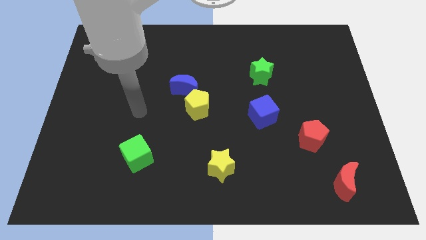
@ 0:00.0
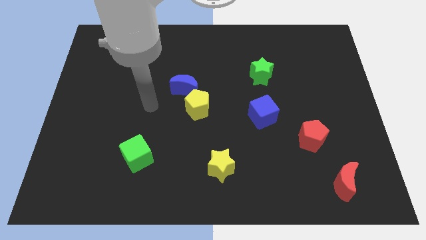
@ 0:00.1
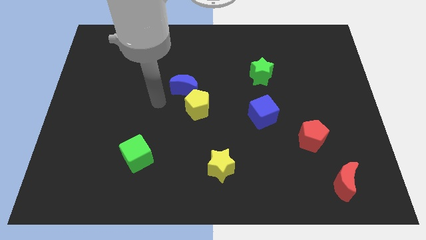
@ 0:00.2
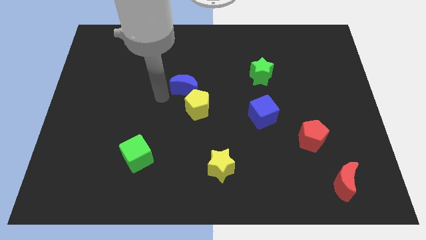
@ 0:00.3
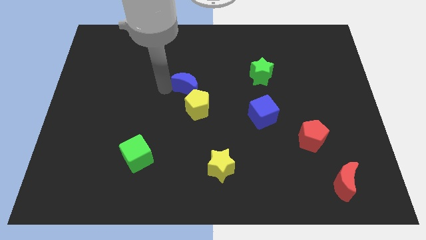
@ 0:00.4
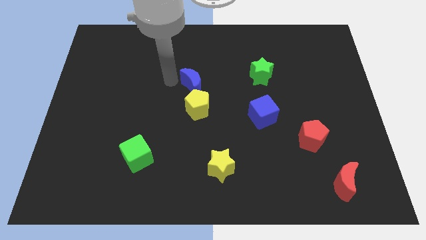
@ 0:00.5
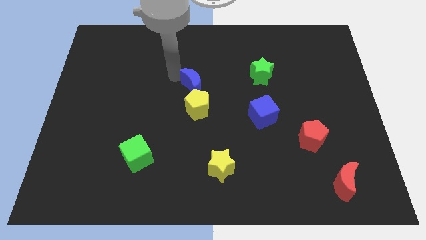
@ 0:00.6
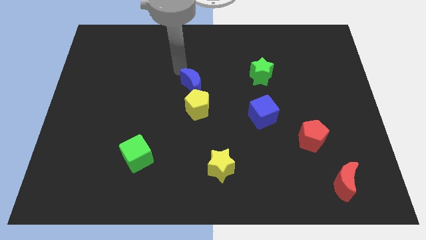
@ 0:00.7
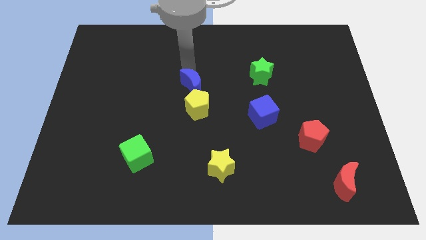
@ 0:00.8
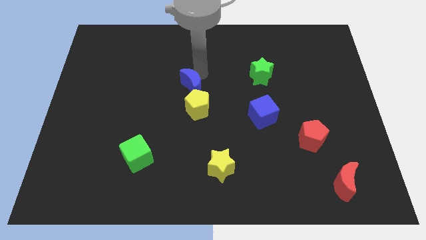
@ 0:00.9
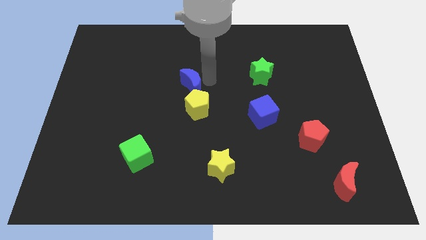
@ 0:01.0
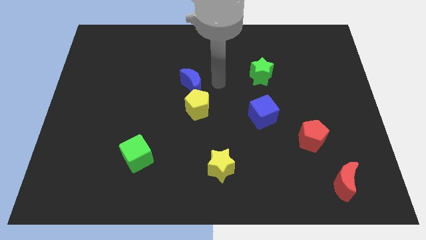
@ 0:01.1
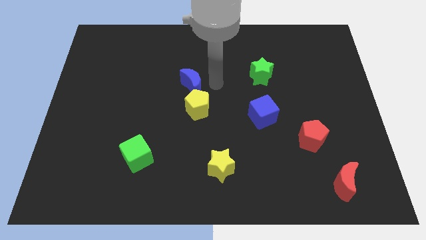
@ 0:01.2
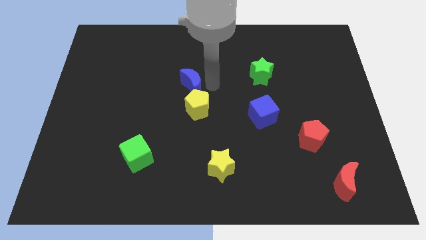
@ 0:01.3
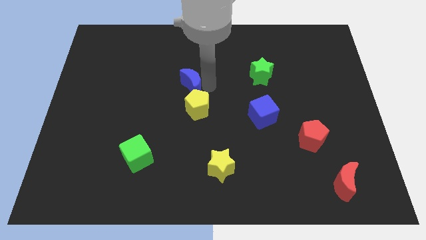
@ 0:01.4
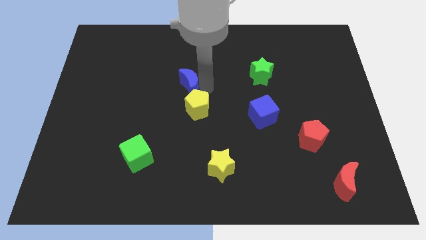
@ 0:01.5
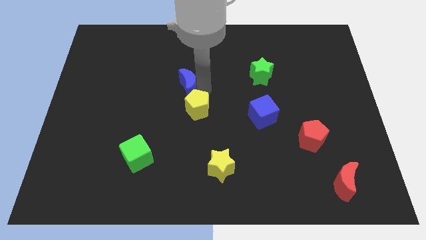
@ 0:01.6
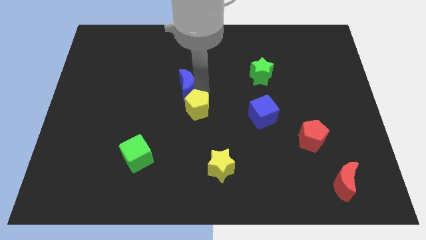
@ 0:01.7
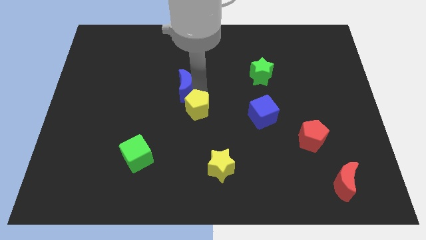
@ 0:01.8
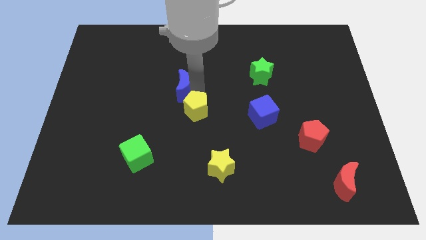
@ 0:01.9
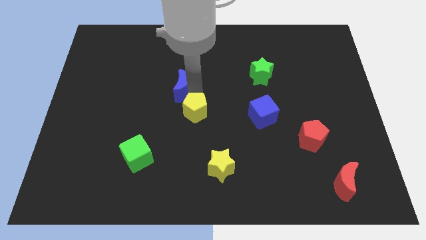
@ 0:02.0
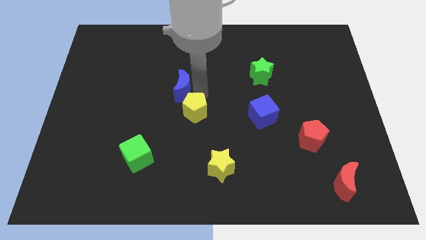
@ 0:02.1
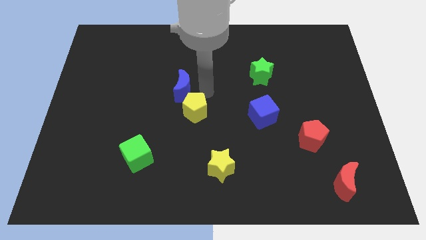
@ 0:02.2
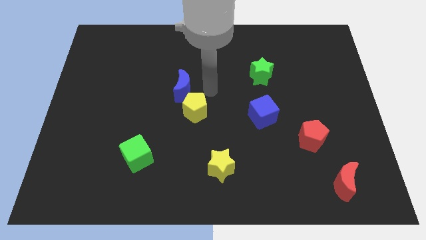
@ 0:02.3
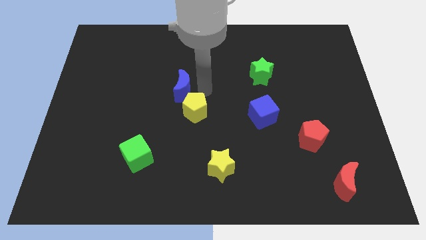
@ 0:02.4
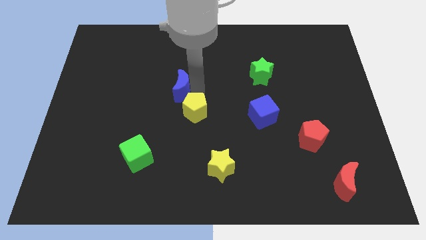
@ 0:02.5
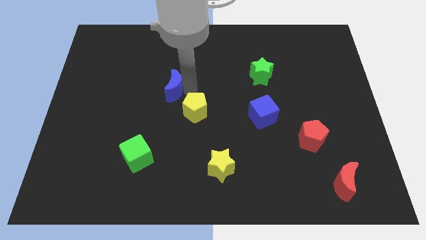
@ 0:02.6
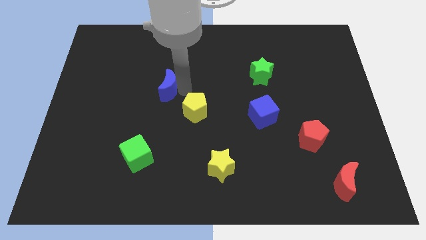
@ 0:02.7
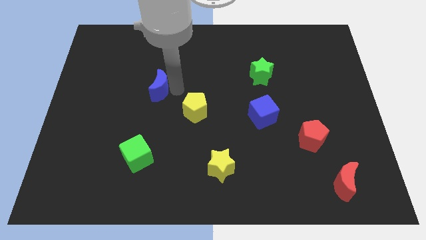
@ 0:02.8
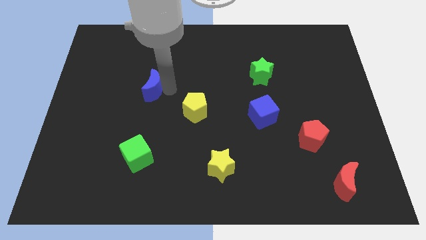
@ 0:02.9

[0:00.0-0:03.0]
slightly push the blue moon left

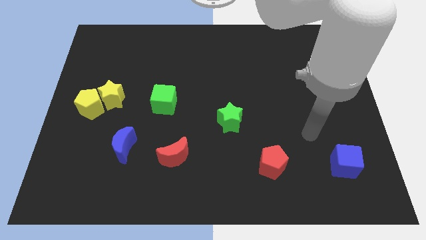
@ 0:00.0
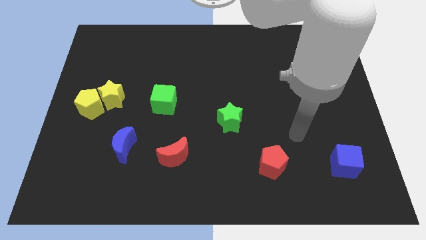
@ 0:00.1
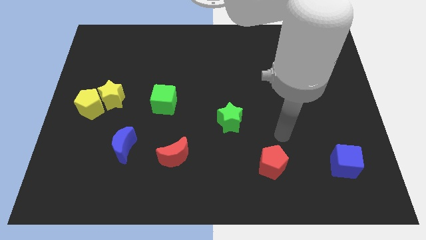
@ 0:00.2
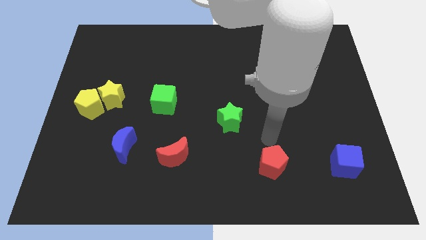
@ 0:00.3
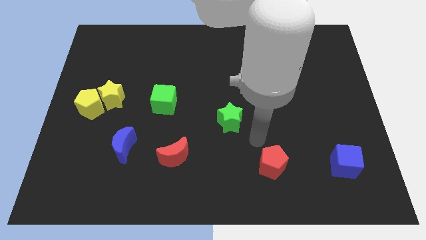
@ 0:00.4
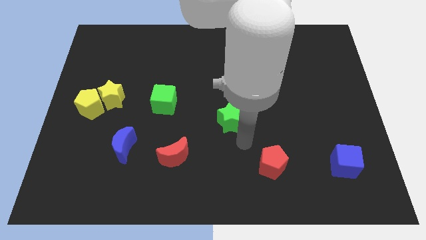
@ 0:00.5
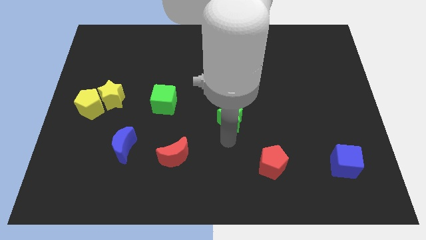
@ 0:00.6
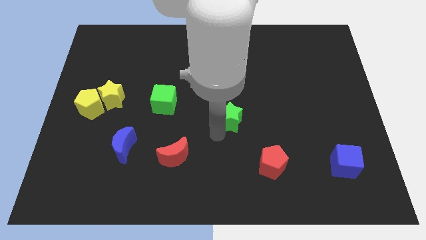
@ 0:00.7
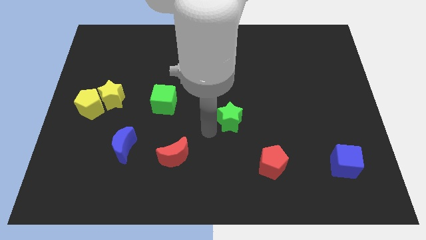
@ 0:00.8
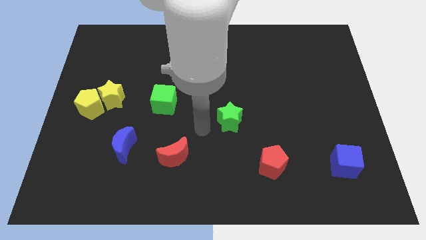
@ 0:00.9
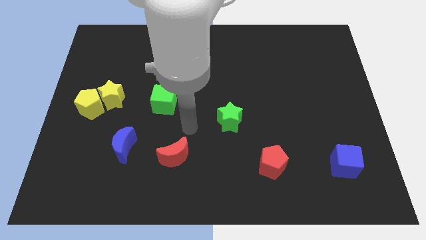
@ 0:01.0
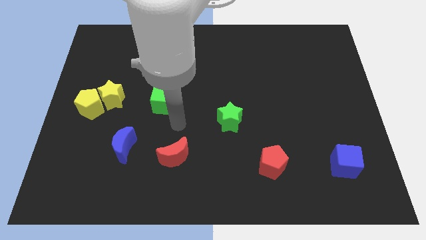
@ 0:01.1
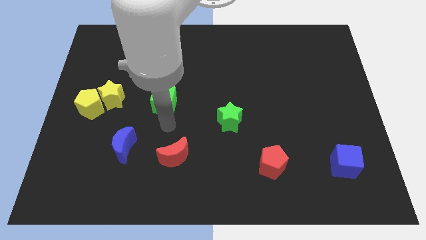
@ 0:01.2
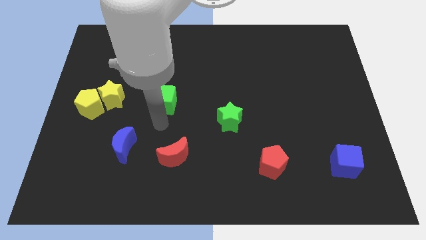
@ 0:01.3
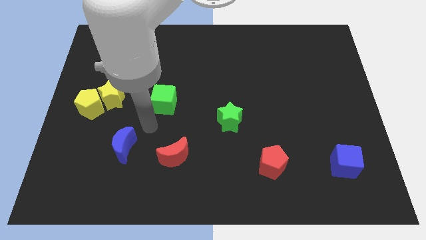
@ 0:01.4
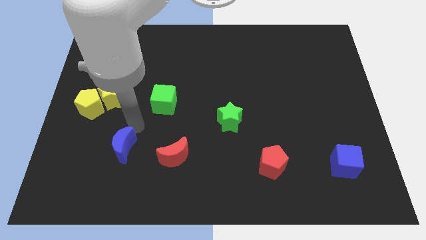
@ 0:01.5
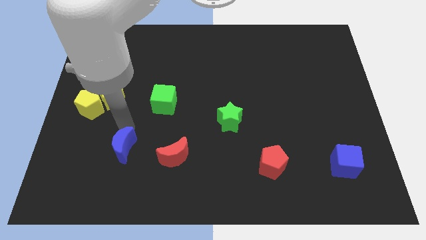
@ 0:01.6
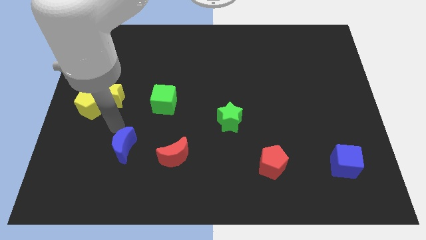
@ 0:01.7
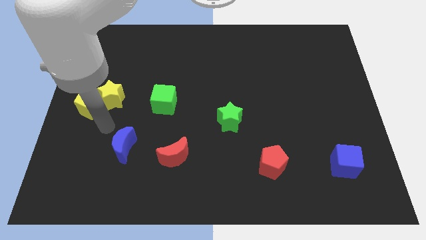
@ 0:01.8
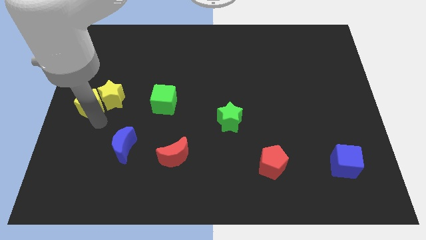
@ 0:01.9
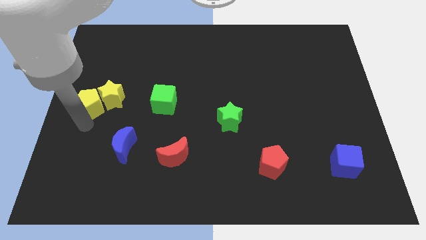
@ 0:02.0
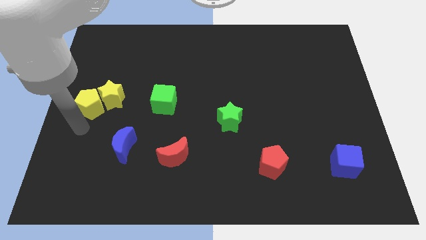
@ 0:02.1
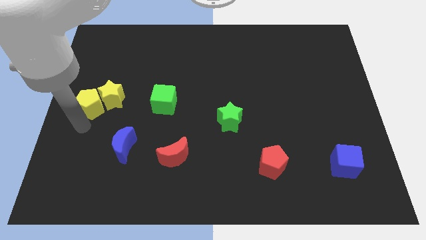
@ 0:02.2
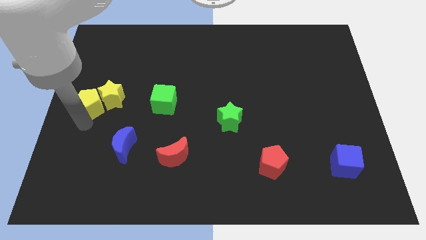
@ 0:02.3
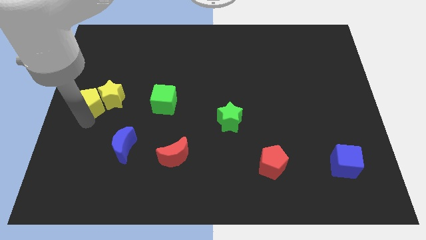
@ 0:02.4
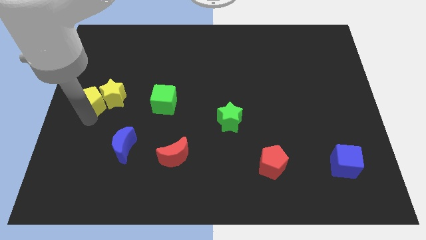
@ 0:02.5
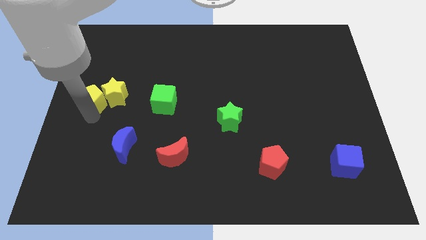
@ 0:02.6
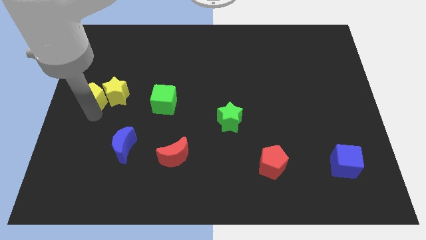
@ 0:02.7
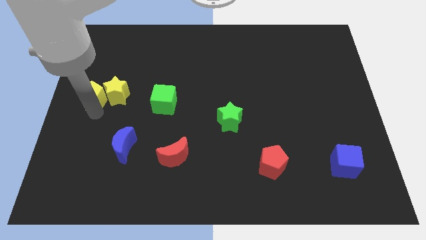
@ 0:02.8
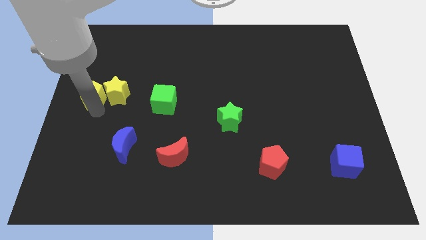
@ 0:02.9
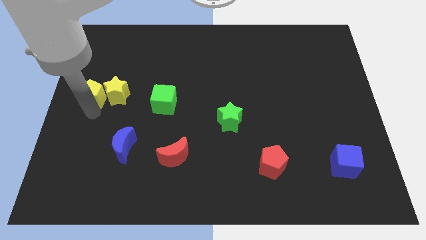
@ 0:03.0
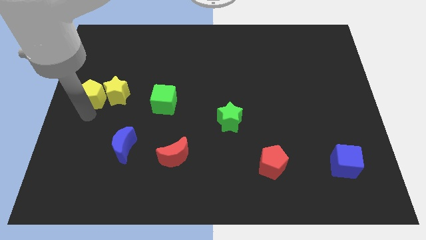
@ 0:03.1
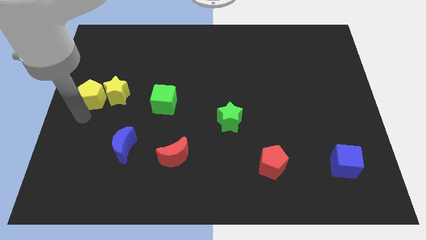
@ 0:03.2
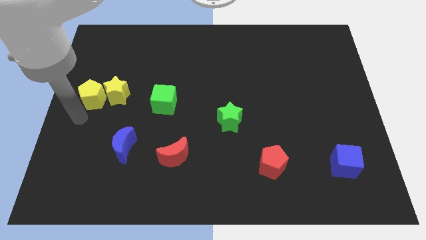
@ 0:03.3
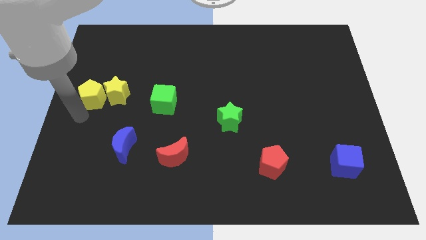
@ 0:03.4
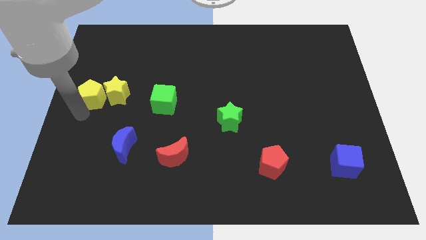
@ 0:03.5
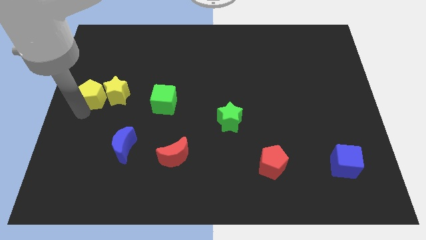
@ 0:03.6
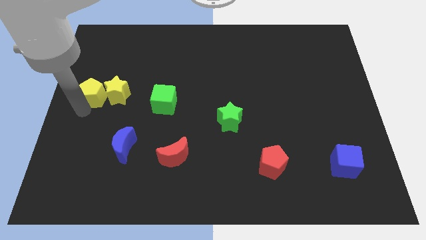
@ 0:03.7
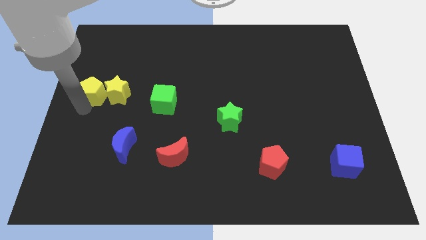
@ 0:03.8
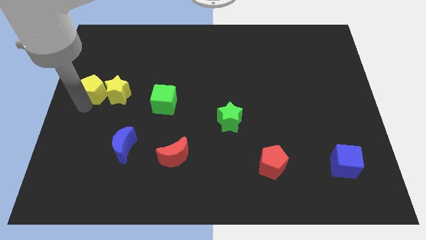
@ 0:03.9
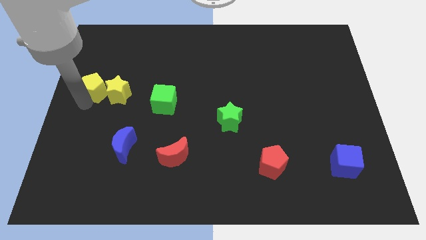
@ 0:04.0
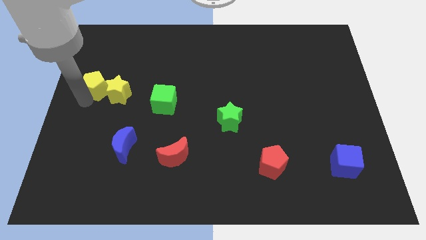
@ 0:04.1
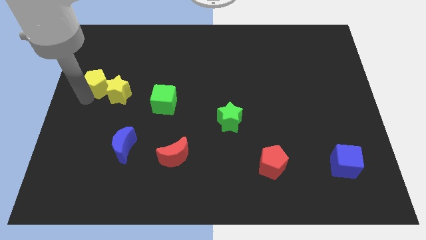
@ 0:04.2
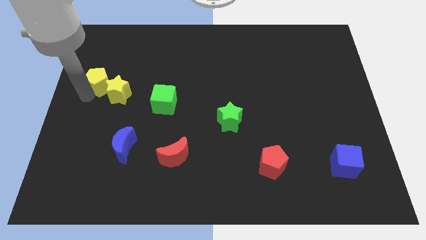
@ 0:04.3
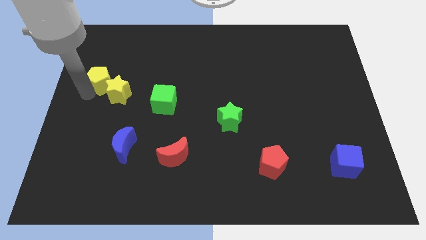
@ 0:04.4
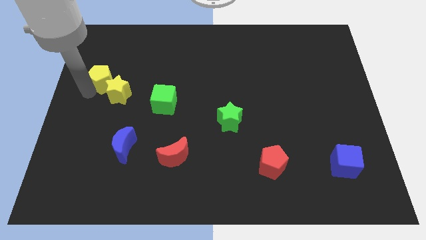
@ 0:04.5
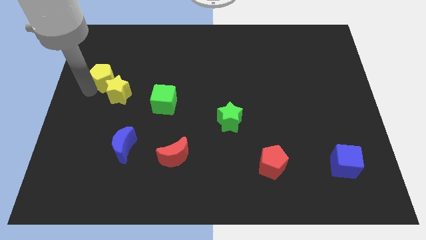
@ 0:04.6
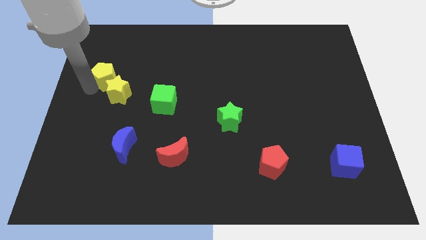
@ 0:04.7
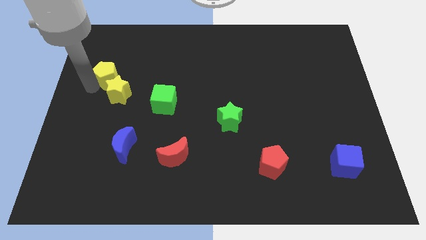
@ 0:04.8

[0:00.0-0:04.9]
slightly move the yellow pentagon upwards and then right

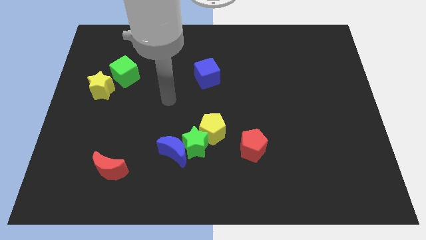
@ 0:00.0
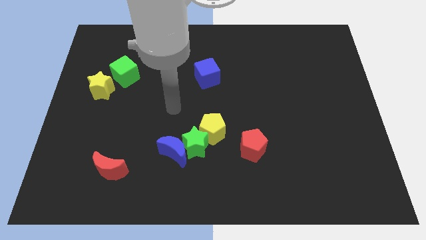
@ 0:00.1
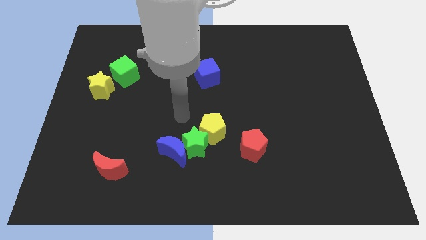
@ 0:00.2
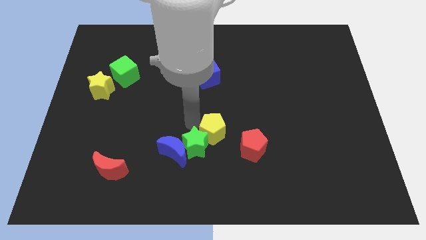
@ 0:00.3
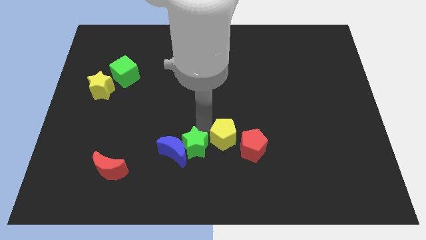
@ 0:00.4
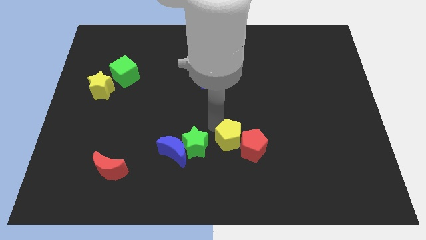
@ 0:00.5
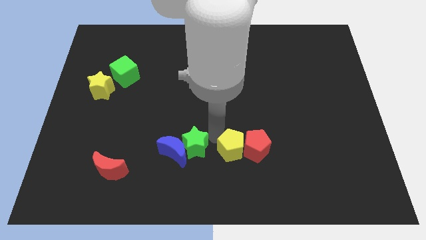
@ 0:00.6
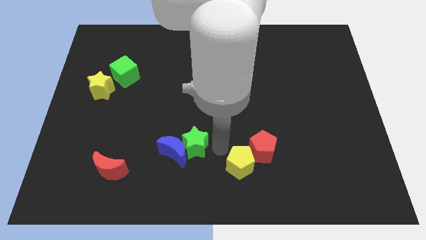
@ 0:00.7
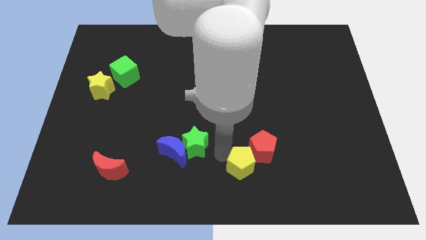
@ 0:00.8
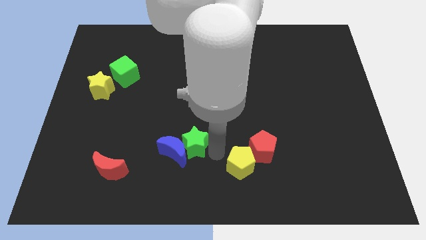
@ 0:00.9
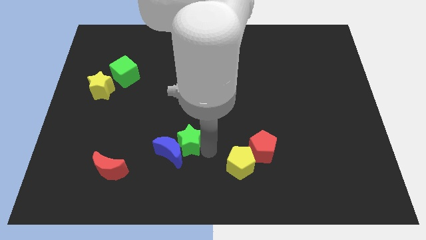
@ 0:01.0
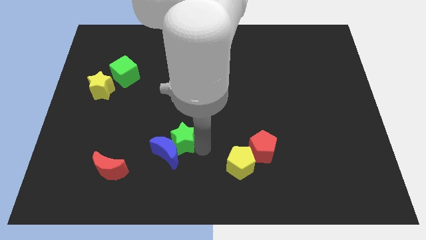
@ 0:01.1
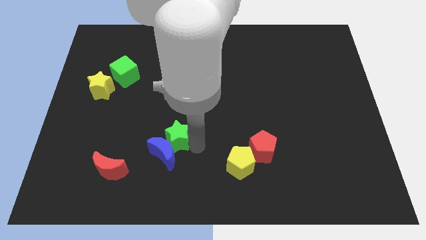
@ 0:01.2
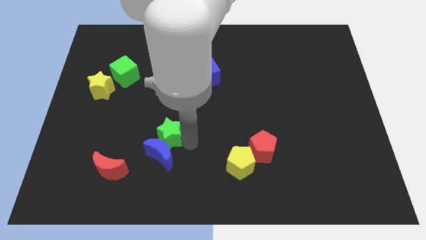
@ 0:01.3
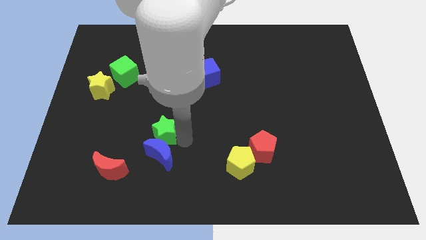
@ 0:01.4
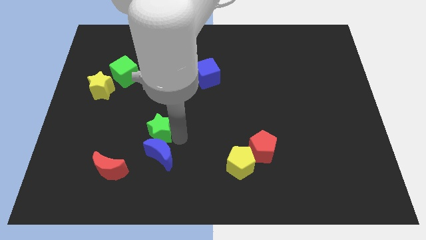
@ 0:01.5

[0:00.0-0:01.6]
slightly push the green star to the left
